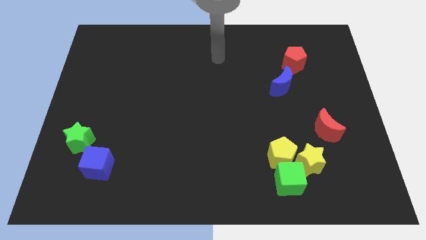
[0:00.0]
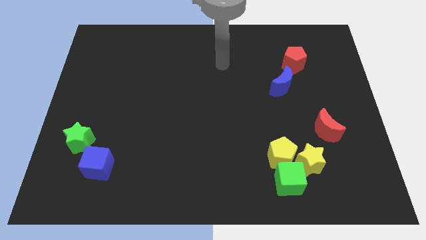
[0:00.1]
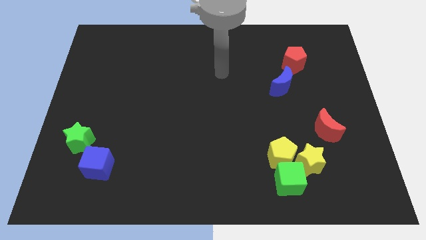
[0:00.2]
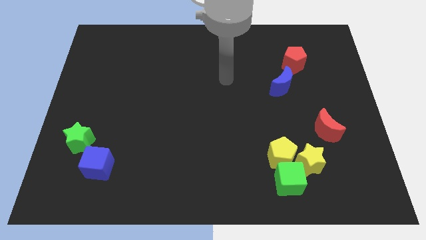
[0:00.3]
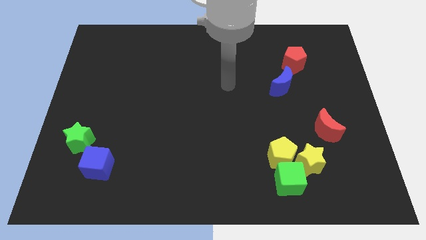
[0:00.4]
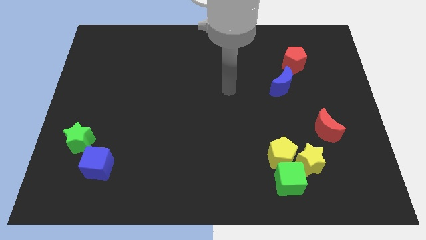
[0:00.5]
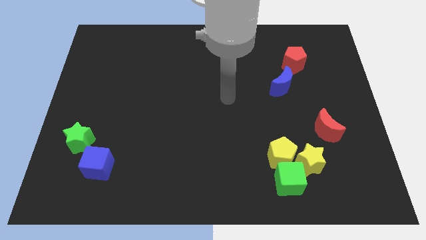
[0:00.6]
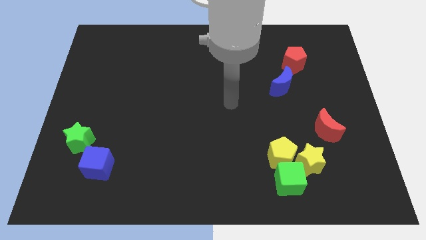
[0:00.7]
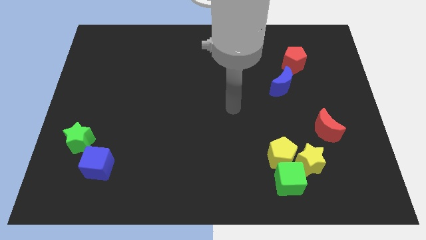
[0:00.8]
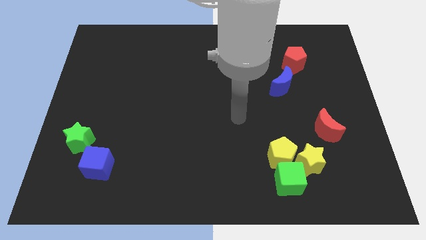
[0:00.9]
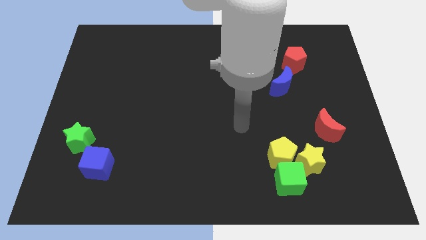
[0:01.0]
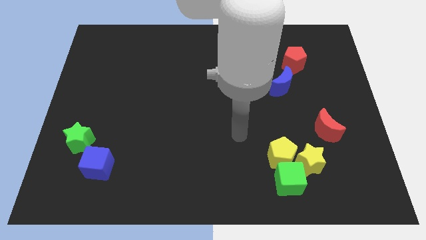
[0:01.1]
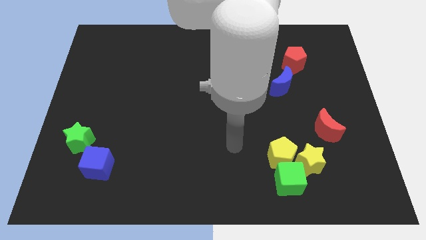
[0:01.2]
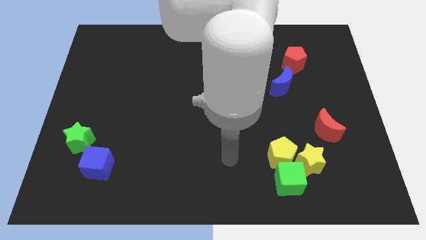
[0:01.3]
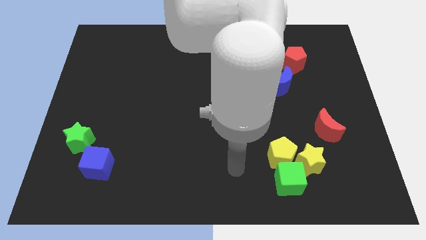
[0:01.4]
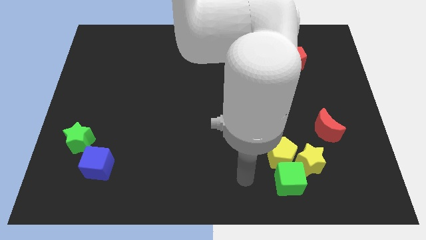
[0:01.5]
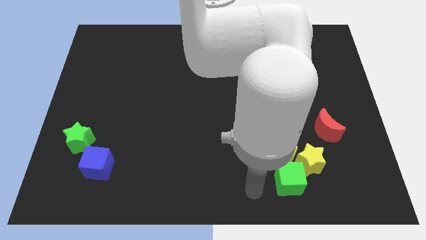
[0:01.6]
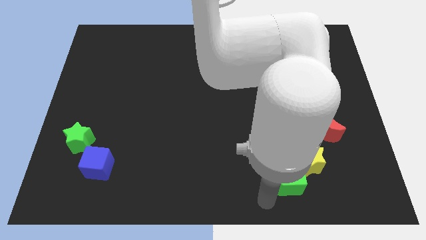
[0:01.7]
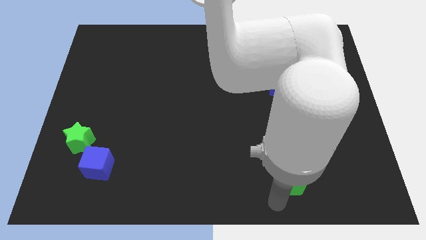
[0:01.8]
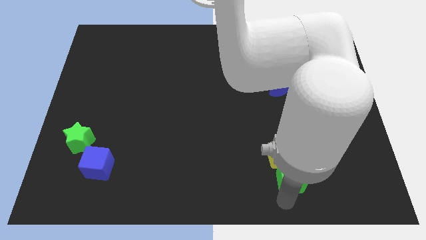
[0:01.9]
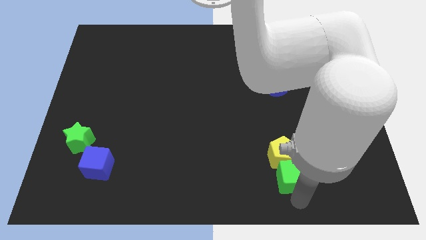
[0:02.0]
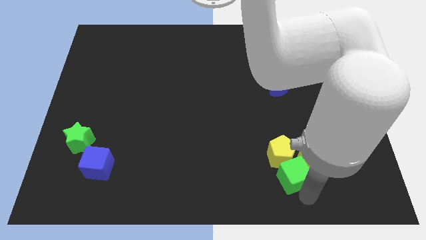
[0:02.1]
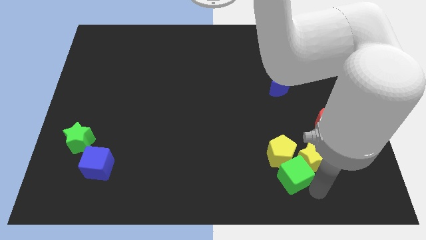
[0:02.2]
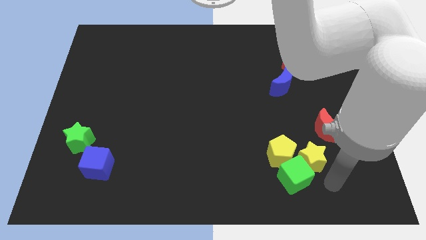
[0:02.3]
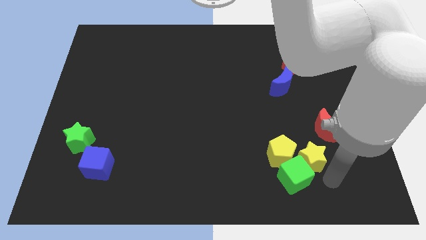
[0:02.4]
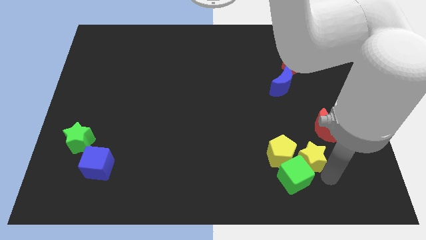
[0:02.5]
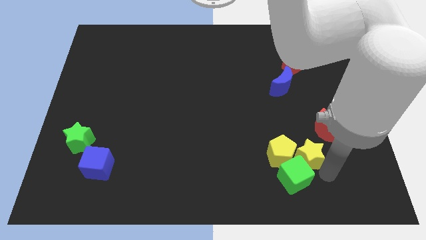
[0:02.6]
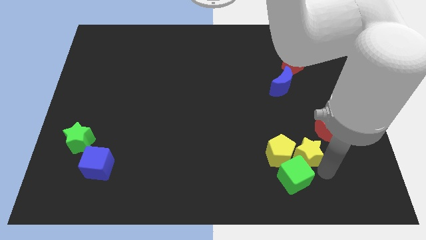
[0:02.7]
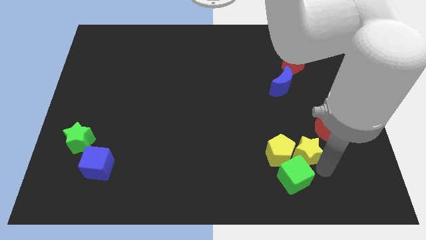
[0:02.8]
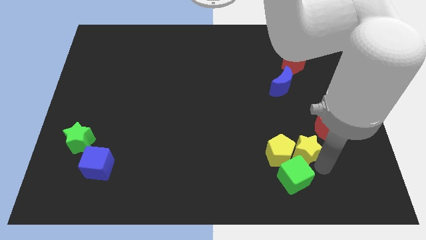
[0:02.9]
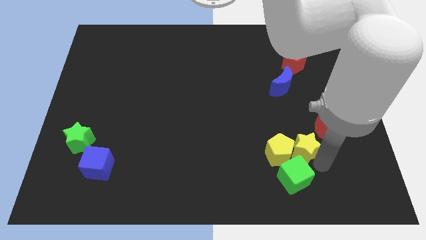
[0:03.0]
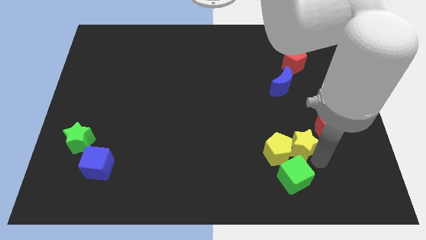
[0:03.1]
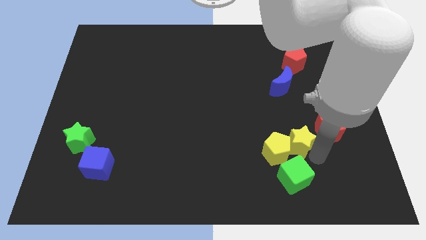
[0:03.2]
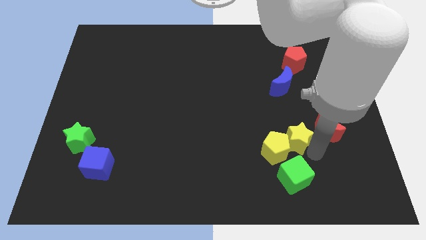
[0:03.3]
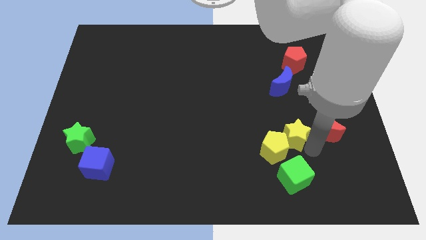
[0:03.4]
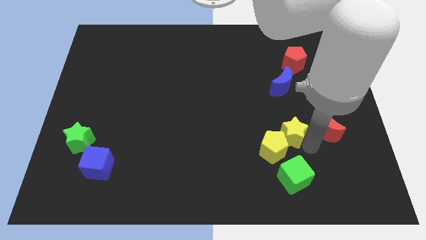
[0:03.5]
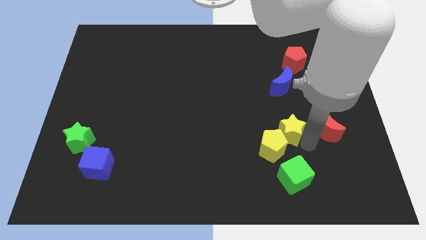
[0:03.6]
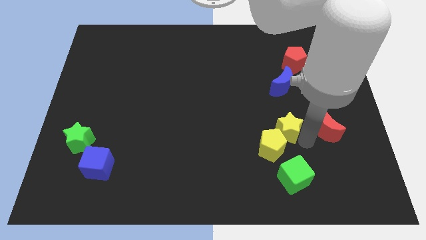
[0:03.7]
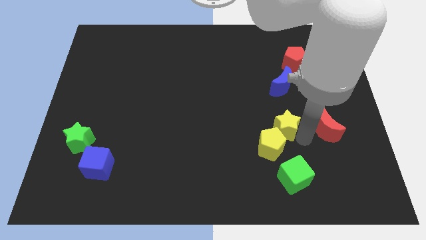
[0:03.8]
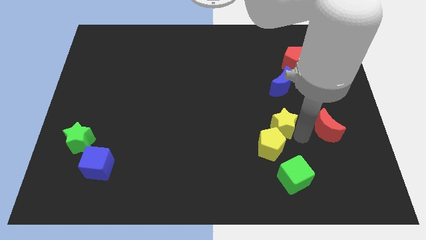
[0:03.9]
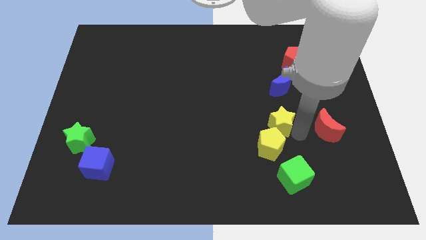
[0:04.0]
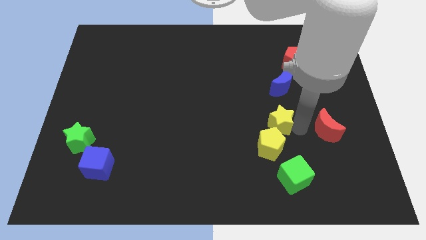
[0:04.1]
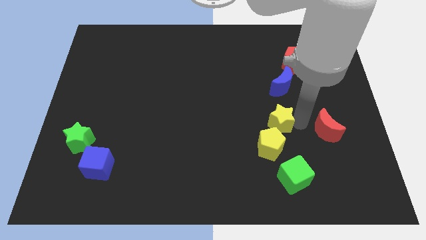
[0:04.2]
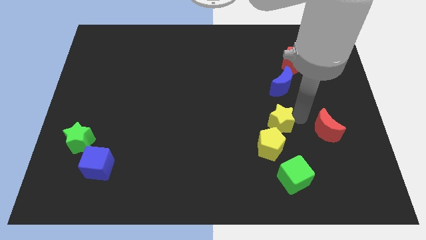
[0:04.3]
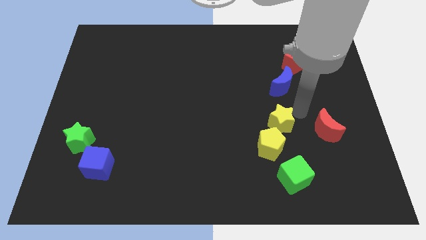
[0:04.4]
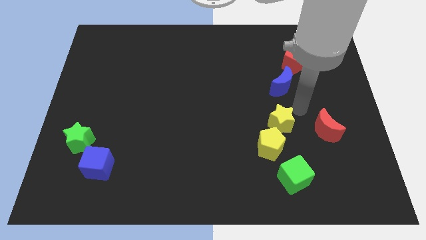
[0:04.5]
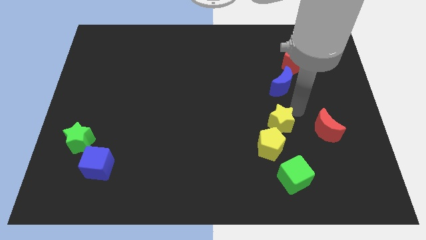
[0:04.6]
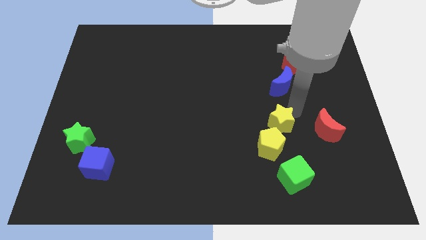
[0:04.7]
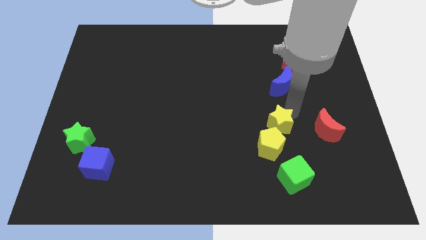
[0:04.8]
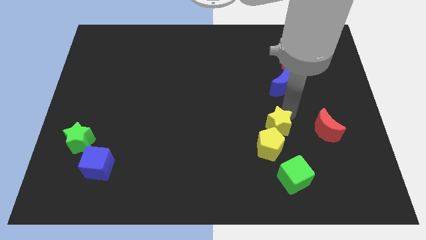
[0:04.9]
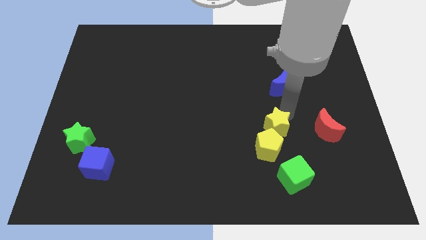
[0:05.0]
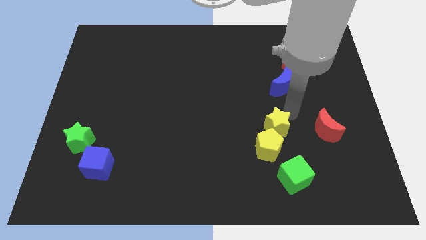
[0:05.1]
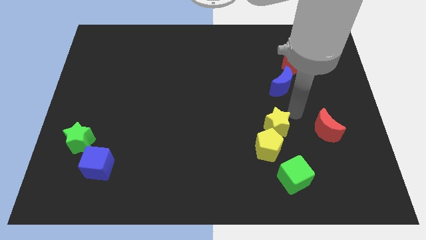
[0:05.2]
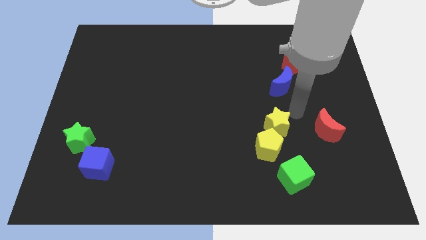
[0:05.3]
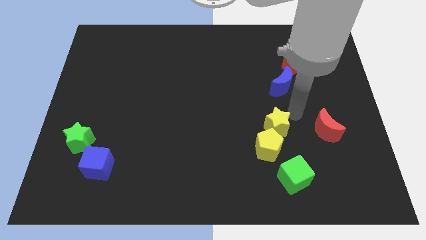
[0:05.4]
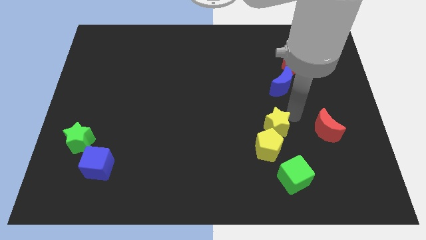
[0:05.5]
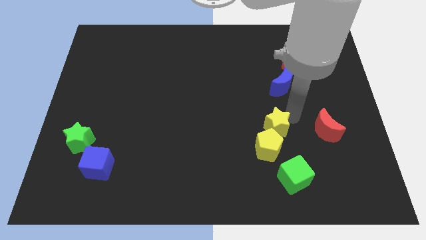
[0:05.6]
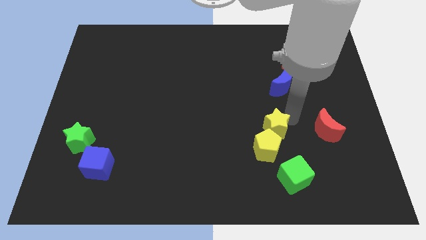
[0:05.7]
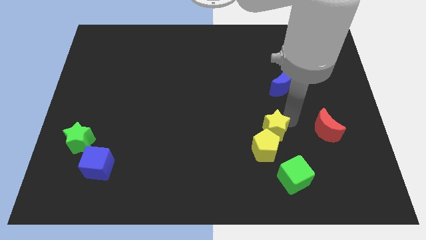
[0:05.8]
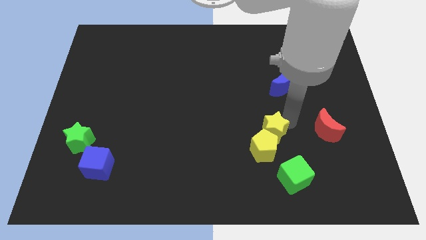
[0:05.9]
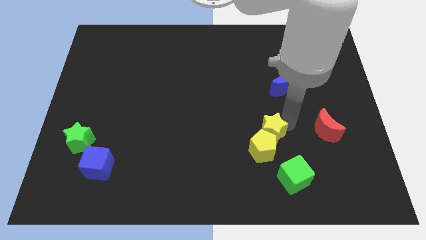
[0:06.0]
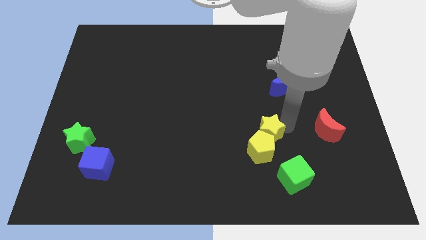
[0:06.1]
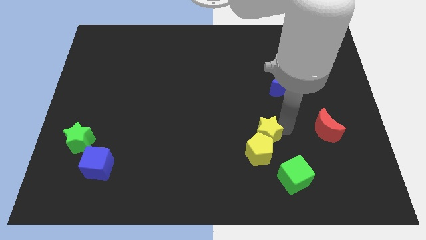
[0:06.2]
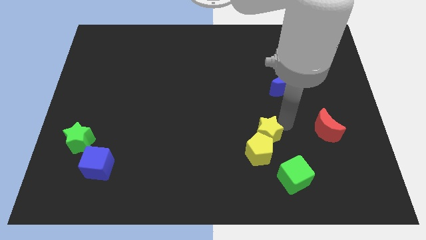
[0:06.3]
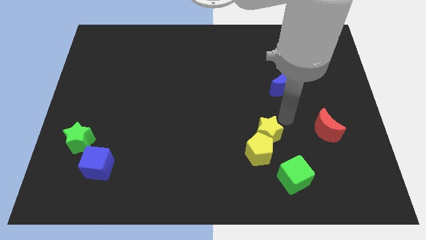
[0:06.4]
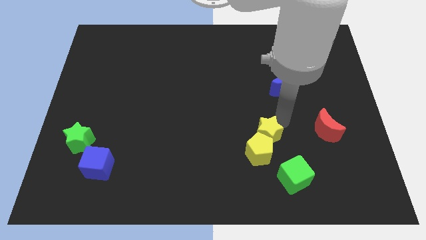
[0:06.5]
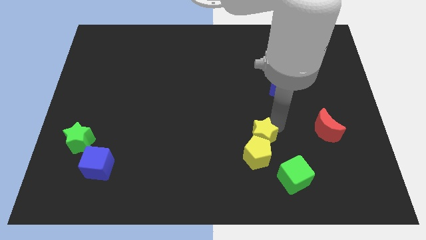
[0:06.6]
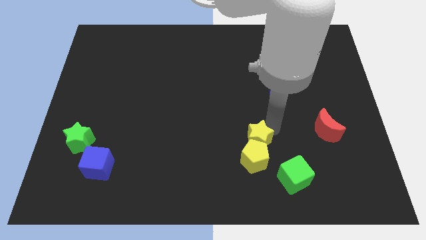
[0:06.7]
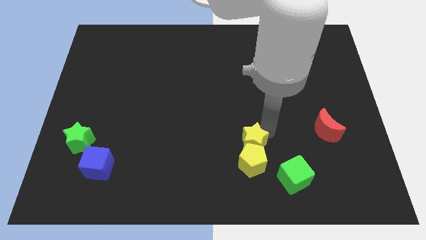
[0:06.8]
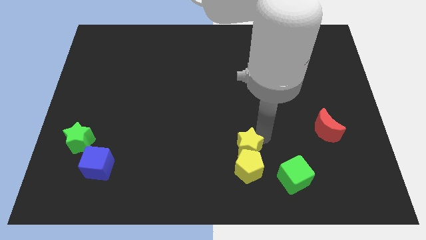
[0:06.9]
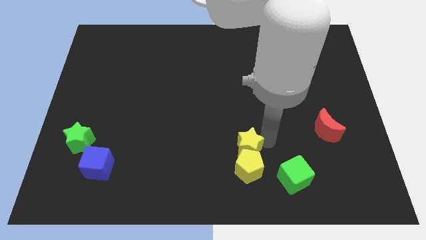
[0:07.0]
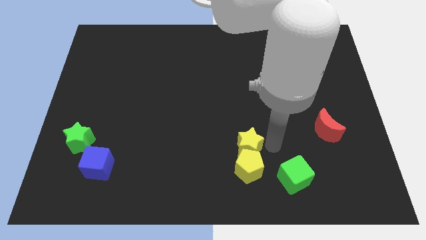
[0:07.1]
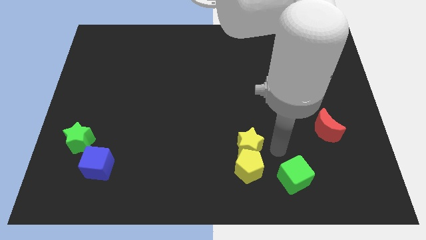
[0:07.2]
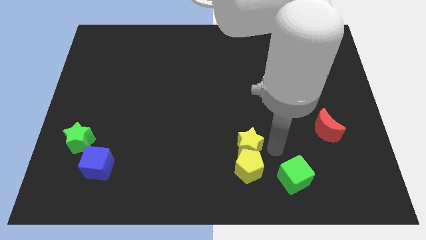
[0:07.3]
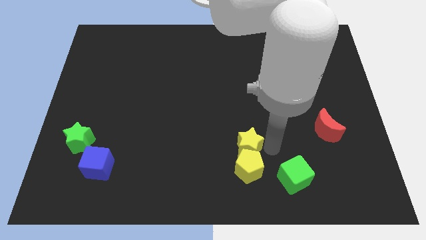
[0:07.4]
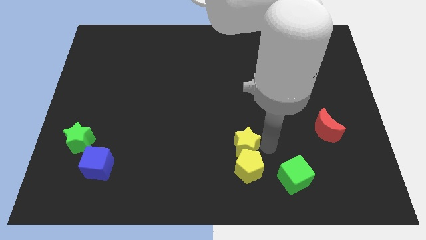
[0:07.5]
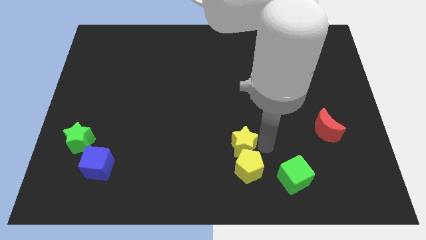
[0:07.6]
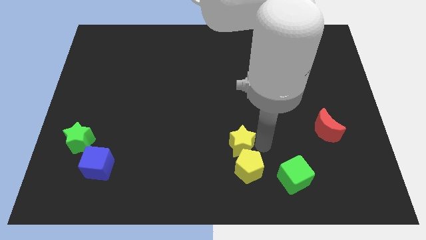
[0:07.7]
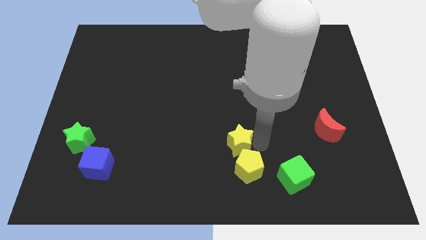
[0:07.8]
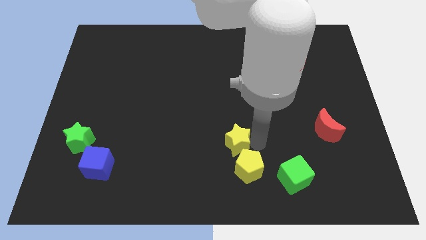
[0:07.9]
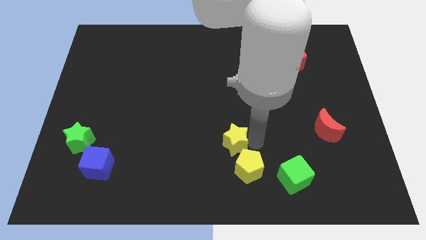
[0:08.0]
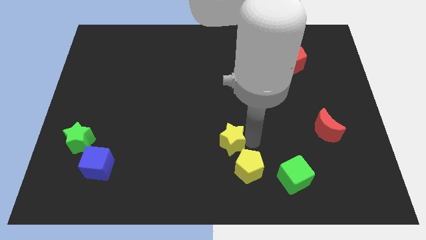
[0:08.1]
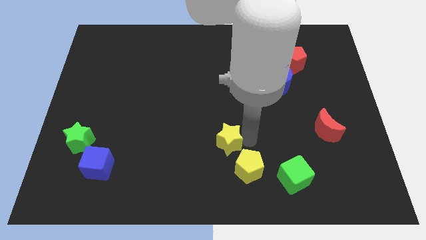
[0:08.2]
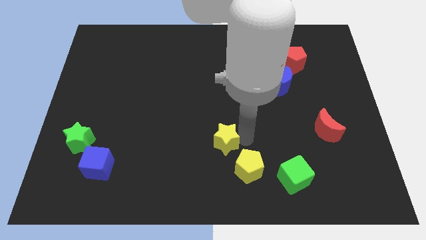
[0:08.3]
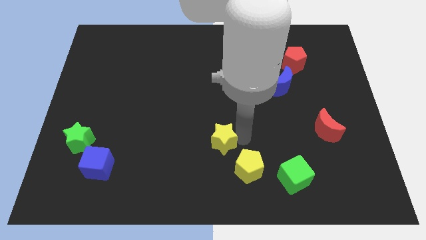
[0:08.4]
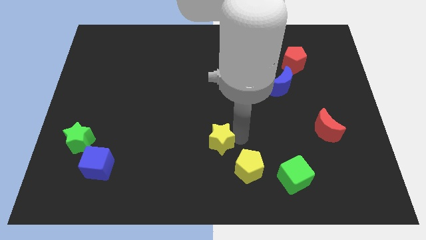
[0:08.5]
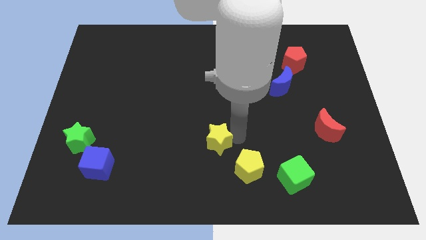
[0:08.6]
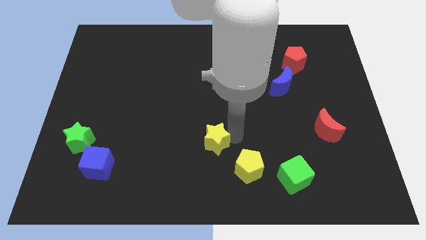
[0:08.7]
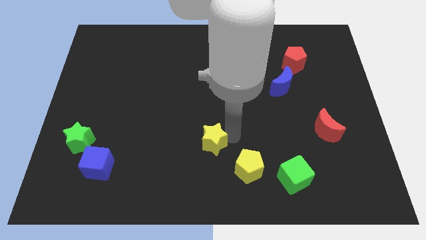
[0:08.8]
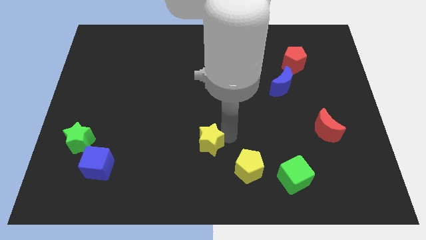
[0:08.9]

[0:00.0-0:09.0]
slide the yellow star to the left
